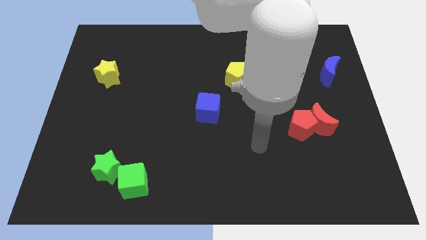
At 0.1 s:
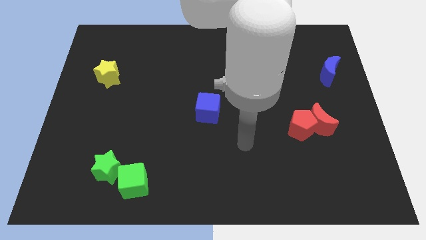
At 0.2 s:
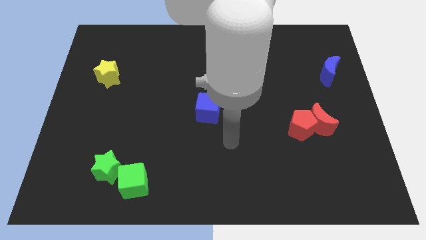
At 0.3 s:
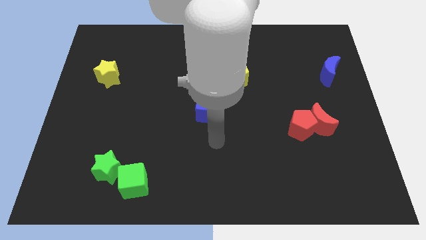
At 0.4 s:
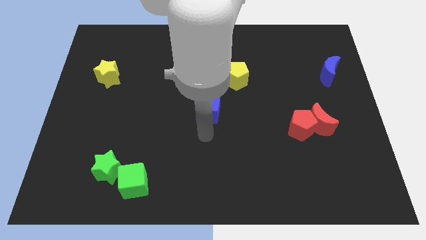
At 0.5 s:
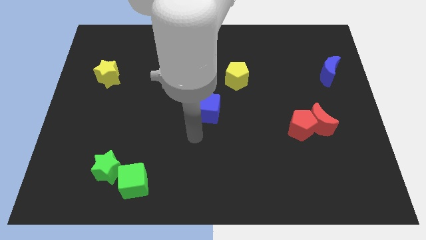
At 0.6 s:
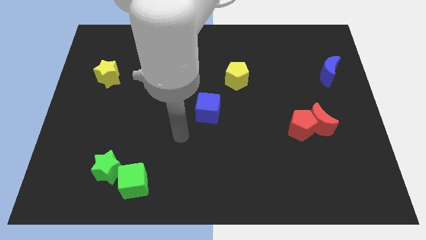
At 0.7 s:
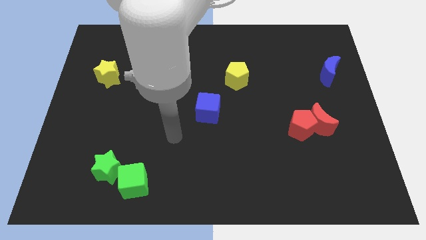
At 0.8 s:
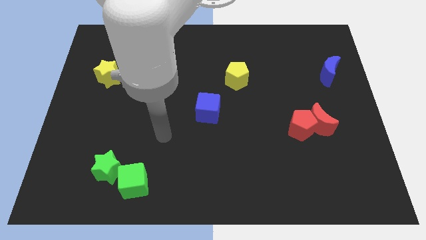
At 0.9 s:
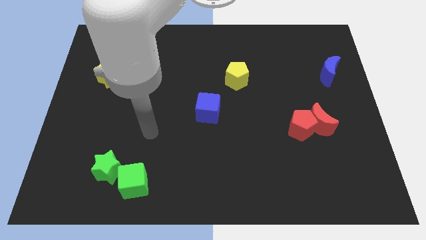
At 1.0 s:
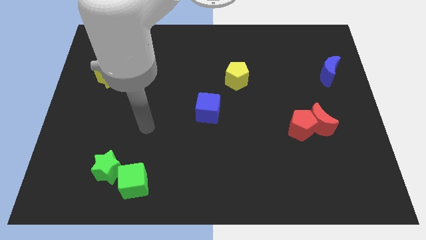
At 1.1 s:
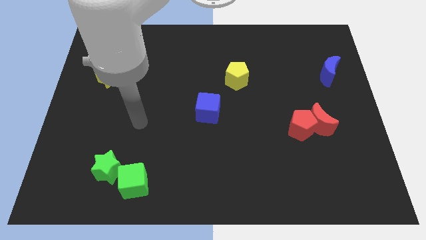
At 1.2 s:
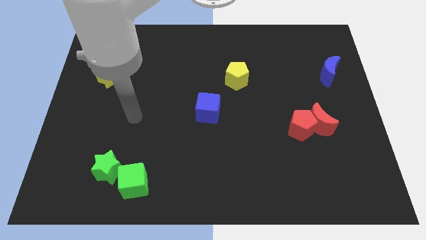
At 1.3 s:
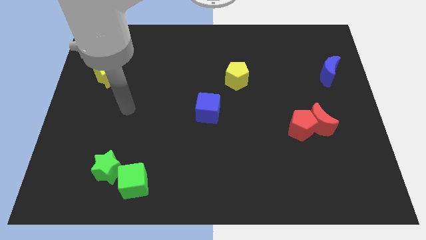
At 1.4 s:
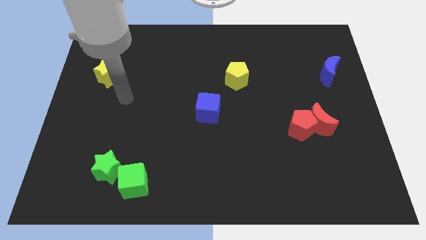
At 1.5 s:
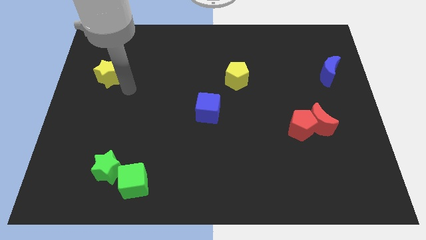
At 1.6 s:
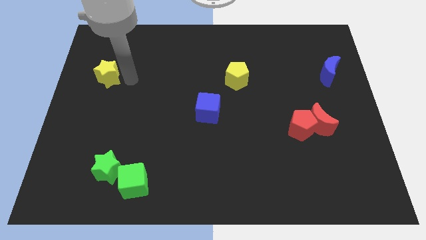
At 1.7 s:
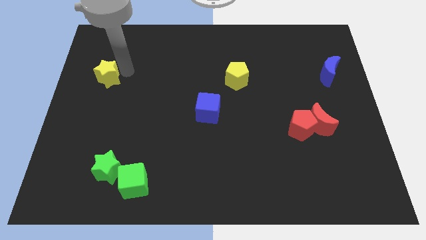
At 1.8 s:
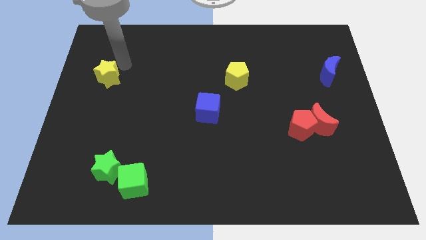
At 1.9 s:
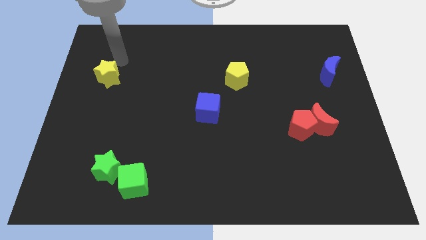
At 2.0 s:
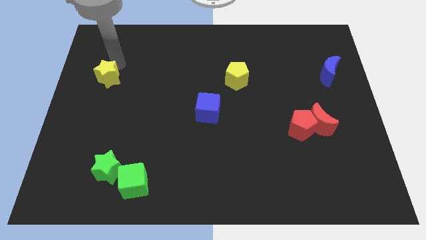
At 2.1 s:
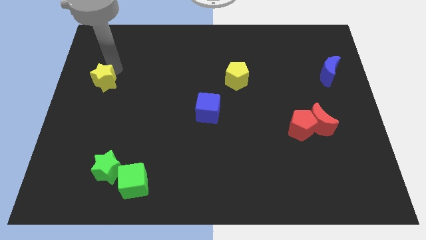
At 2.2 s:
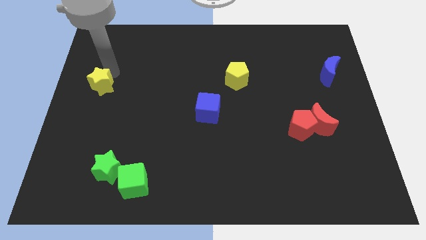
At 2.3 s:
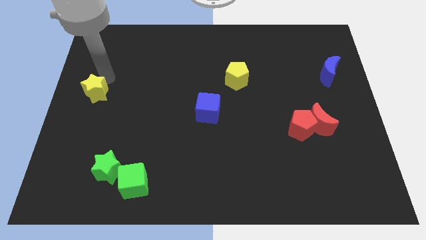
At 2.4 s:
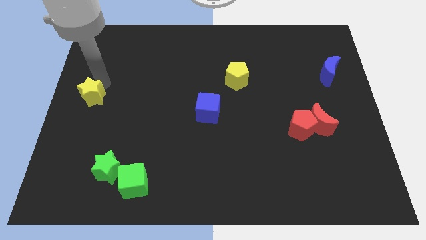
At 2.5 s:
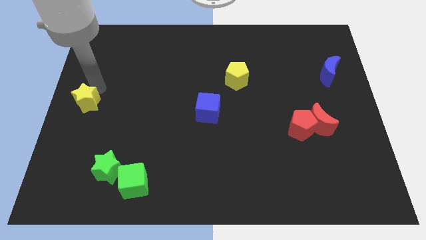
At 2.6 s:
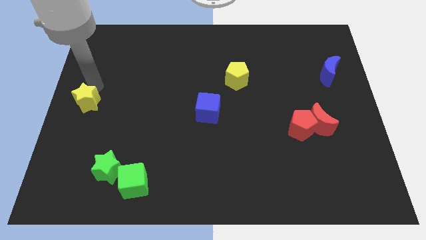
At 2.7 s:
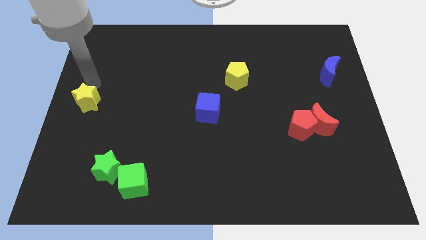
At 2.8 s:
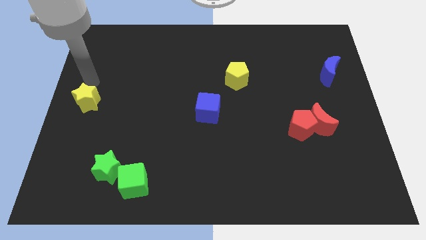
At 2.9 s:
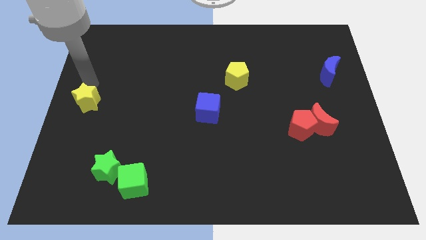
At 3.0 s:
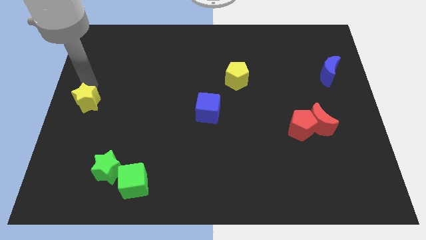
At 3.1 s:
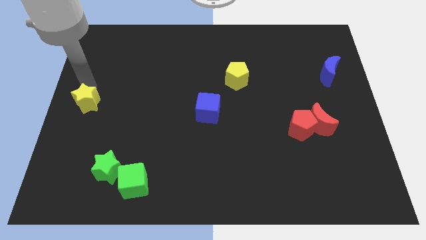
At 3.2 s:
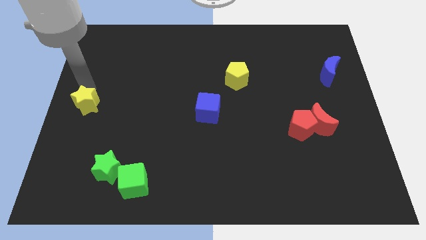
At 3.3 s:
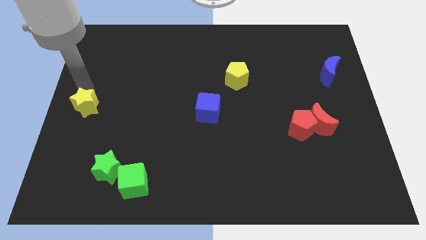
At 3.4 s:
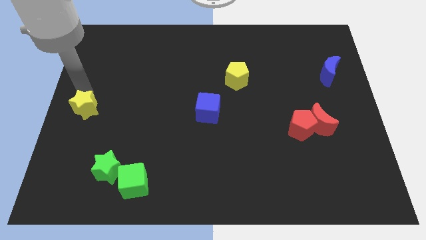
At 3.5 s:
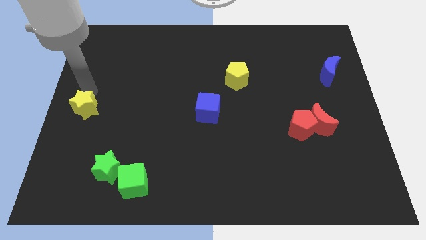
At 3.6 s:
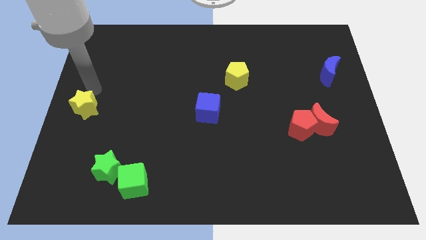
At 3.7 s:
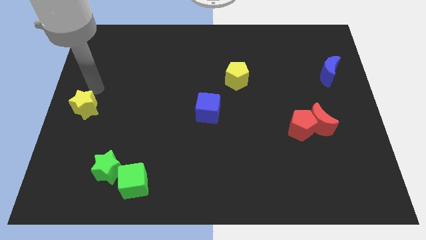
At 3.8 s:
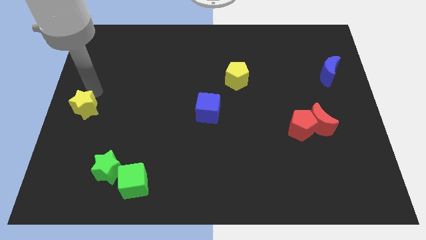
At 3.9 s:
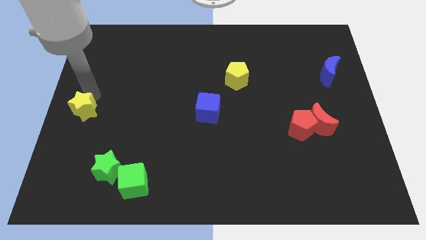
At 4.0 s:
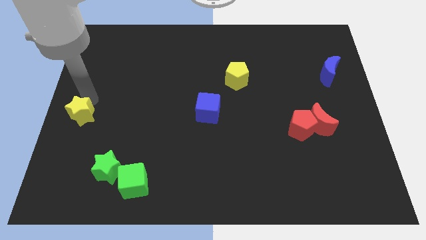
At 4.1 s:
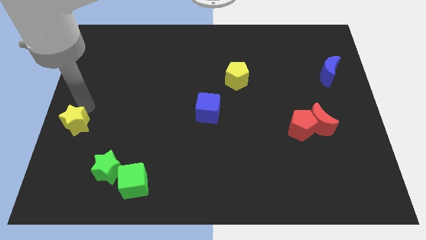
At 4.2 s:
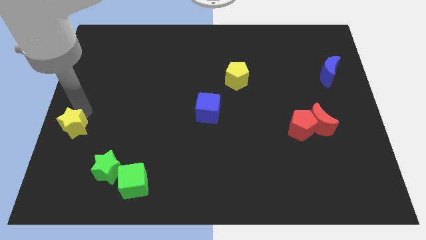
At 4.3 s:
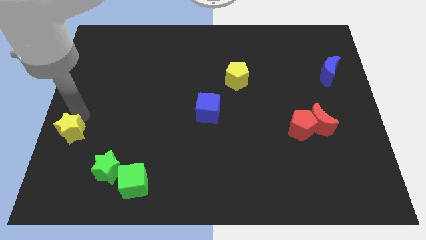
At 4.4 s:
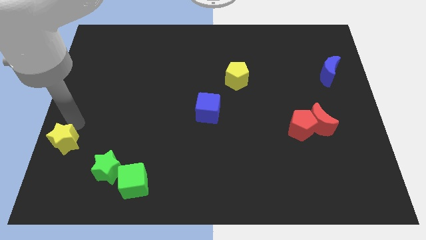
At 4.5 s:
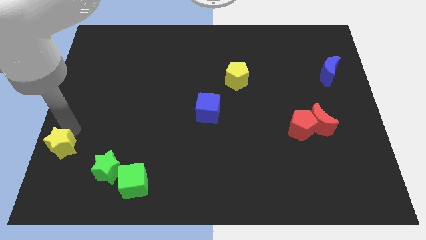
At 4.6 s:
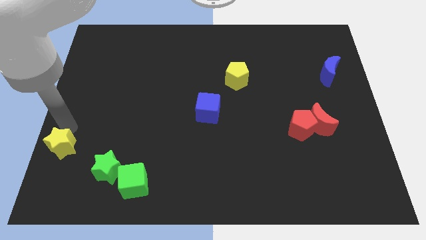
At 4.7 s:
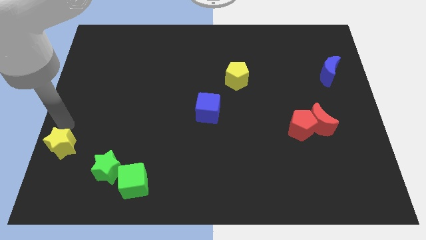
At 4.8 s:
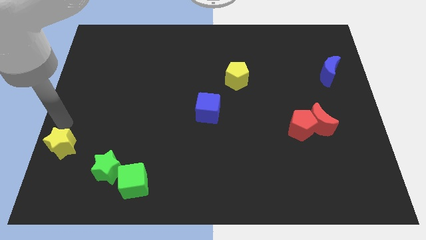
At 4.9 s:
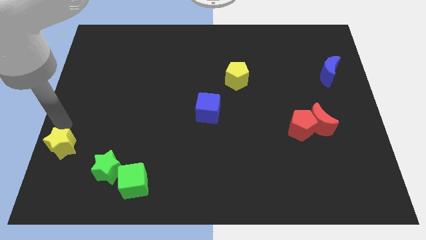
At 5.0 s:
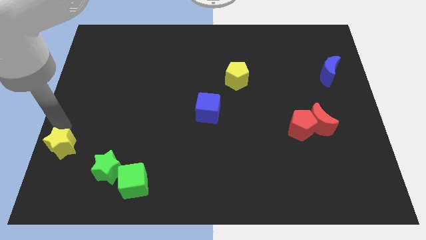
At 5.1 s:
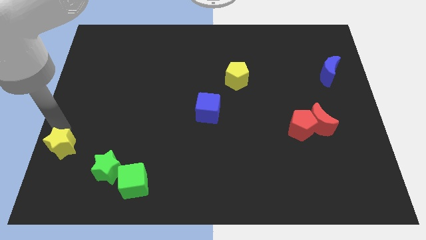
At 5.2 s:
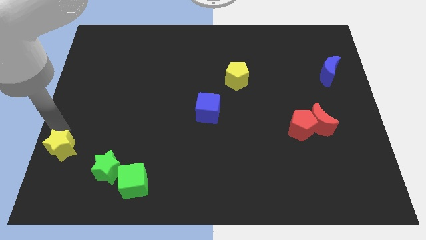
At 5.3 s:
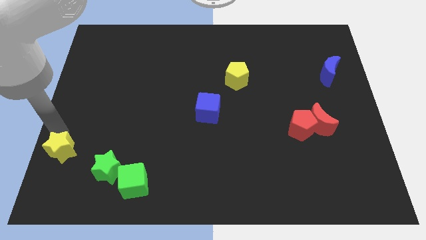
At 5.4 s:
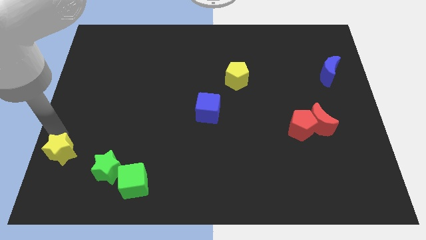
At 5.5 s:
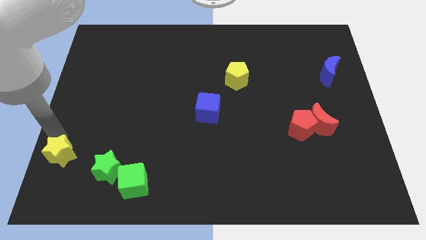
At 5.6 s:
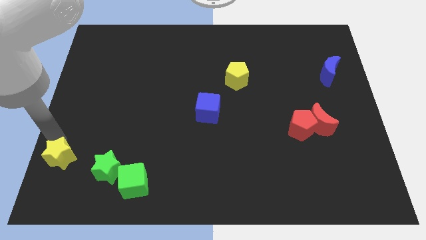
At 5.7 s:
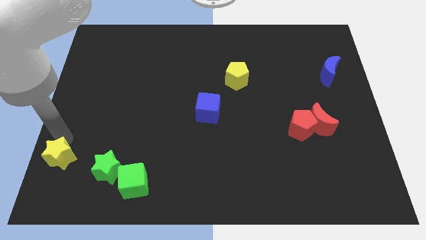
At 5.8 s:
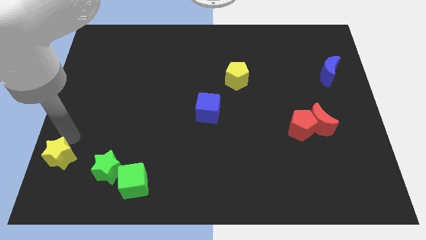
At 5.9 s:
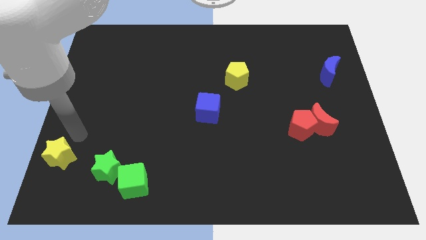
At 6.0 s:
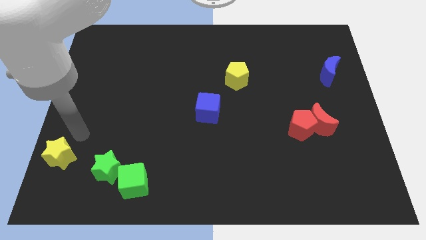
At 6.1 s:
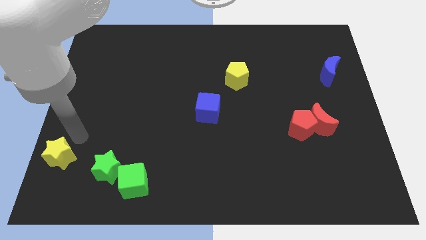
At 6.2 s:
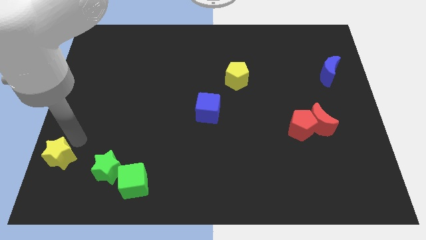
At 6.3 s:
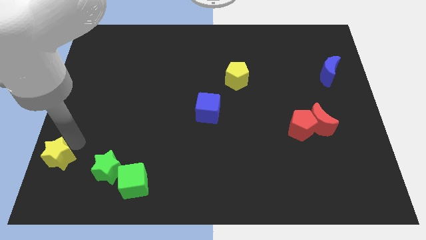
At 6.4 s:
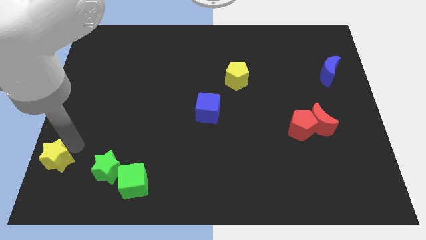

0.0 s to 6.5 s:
slide the yellow star to the bottom left
